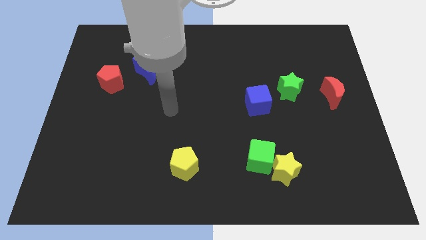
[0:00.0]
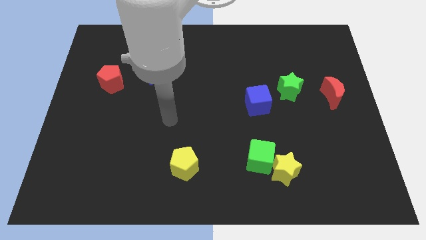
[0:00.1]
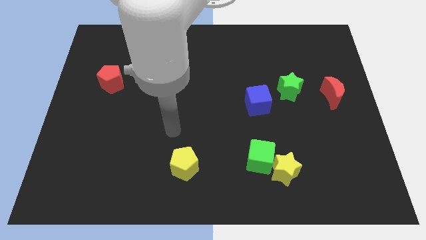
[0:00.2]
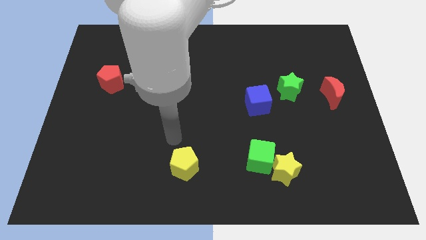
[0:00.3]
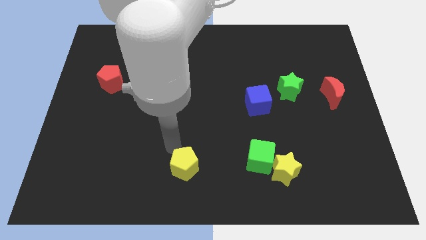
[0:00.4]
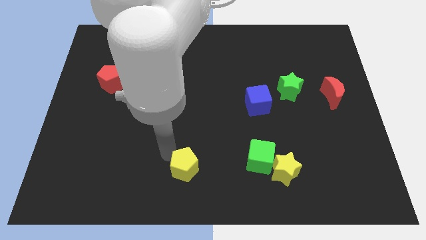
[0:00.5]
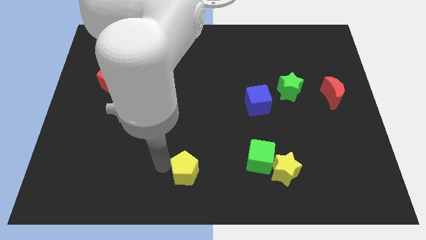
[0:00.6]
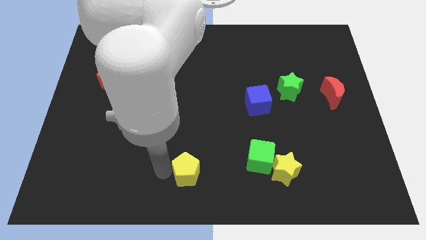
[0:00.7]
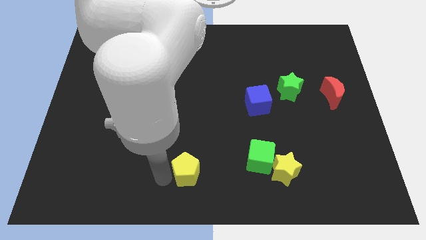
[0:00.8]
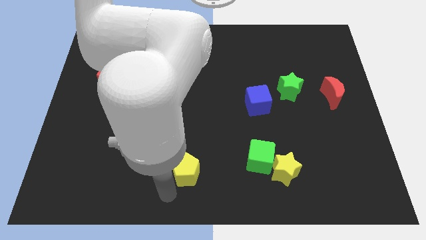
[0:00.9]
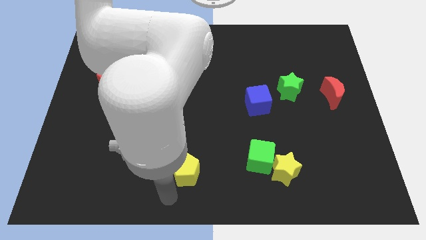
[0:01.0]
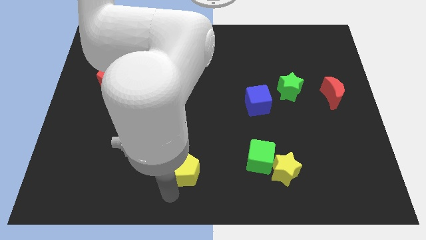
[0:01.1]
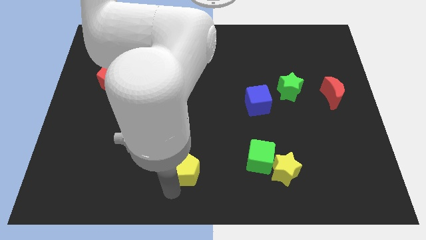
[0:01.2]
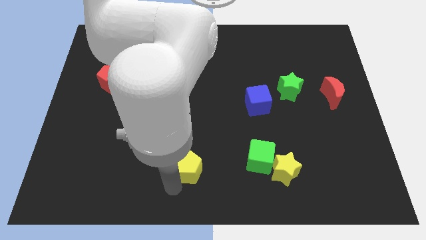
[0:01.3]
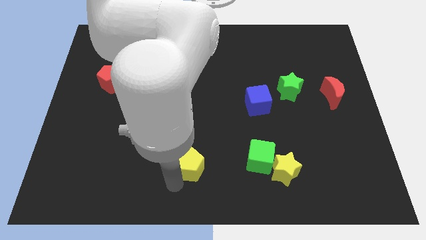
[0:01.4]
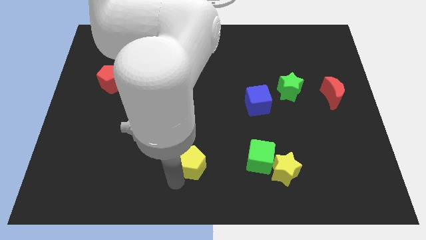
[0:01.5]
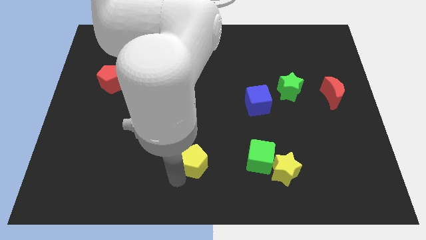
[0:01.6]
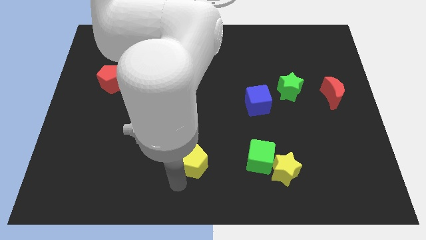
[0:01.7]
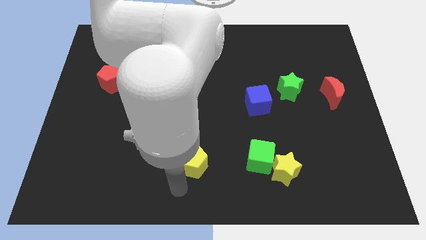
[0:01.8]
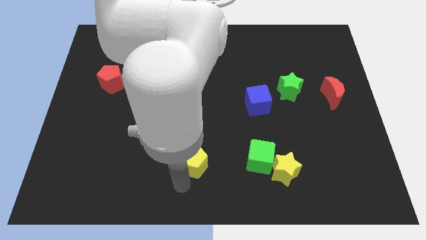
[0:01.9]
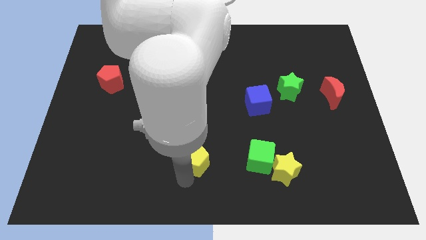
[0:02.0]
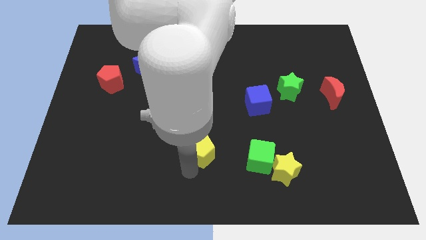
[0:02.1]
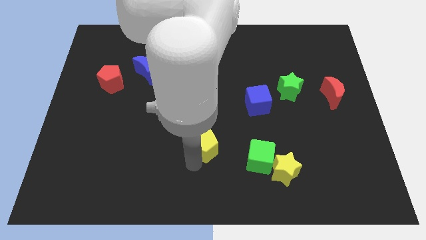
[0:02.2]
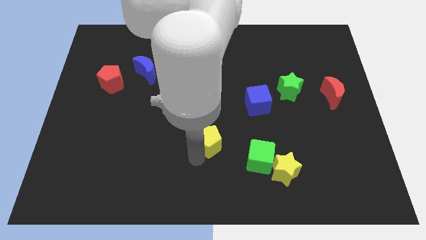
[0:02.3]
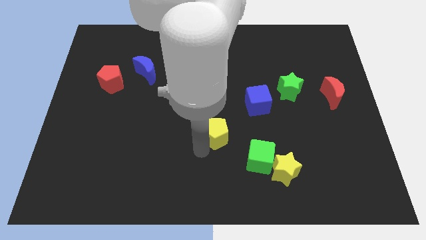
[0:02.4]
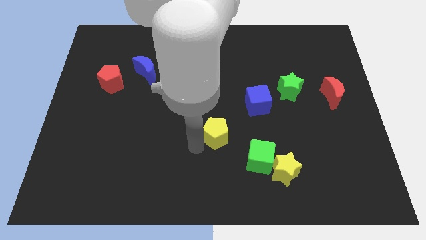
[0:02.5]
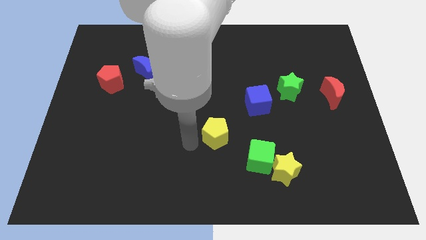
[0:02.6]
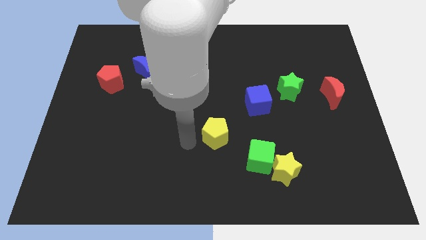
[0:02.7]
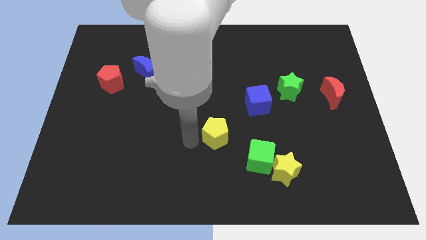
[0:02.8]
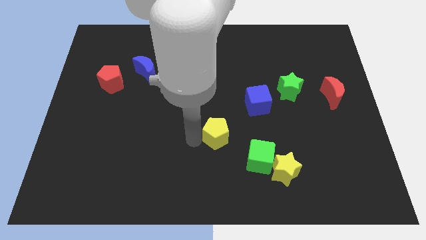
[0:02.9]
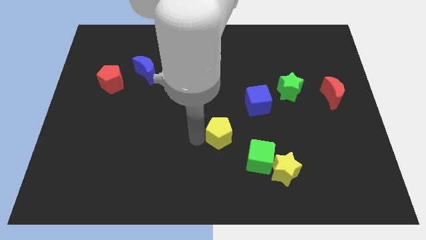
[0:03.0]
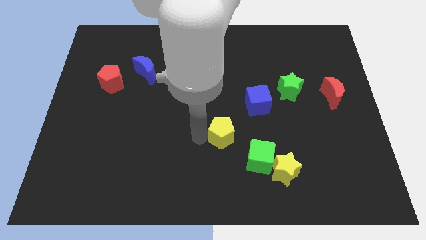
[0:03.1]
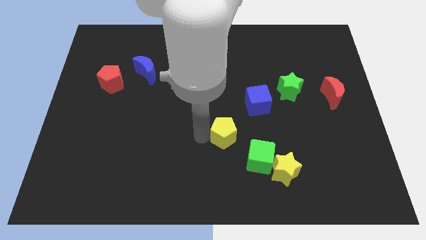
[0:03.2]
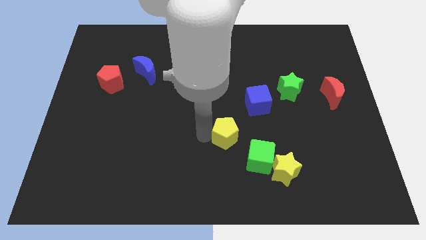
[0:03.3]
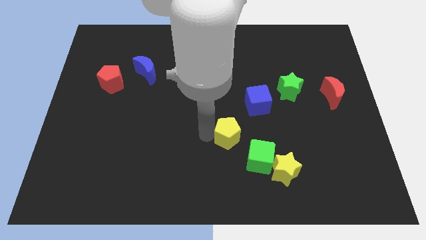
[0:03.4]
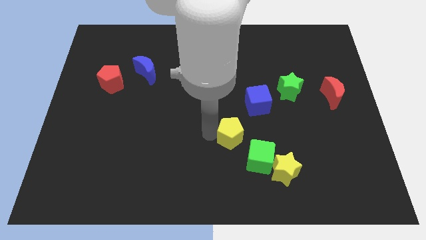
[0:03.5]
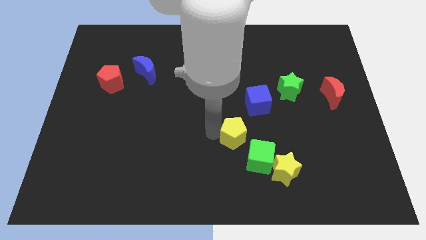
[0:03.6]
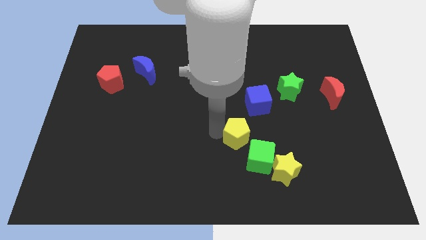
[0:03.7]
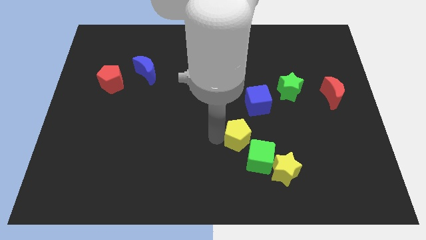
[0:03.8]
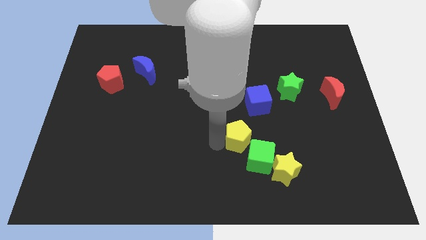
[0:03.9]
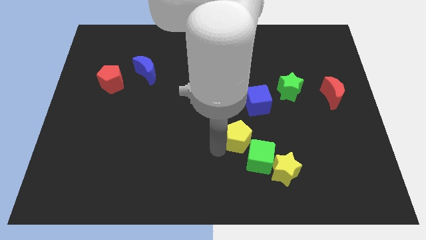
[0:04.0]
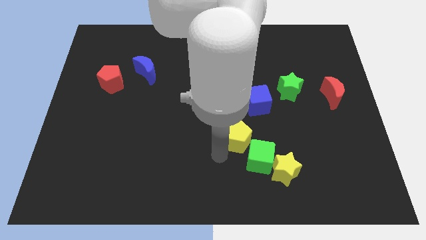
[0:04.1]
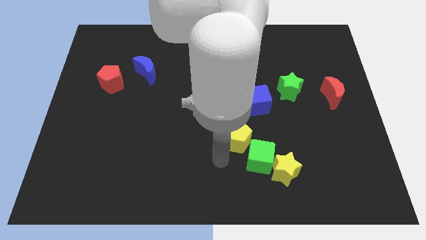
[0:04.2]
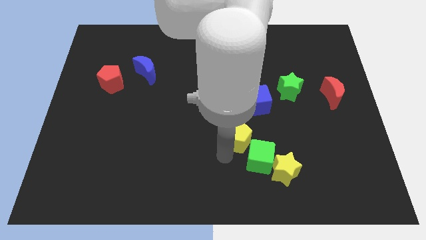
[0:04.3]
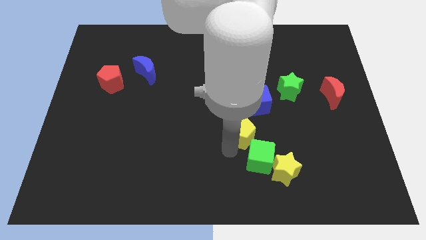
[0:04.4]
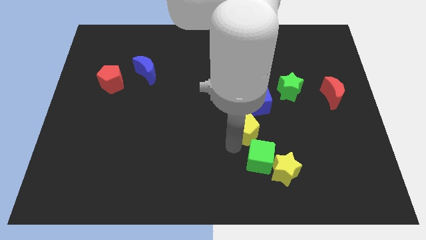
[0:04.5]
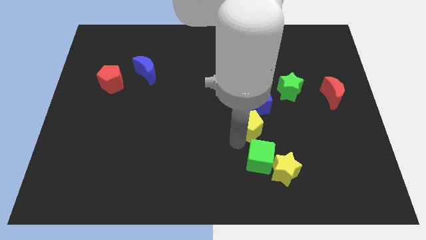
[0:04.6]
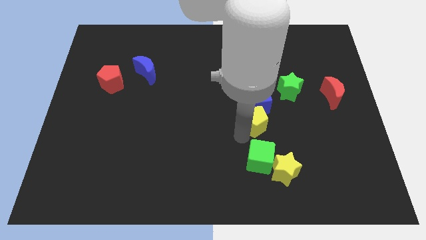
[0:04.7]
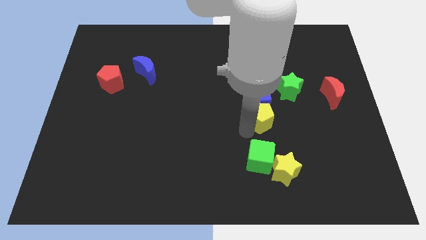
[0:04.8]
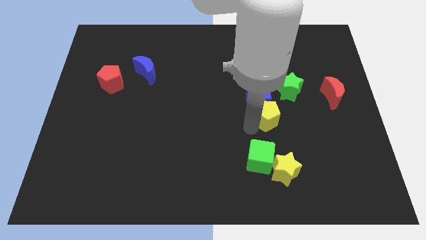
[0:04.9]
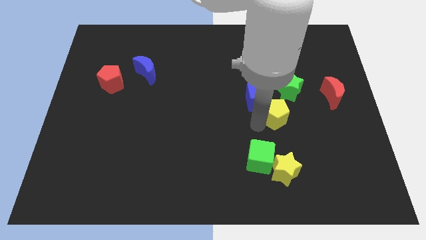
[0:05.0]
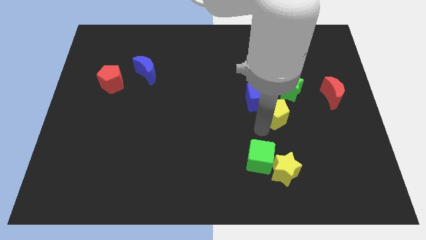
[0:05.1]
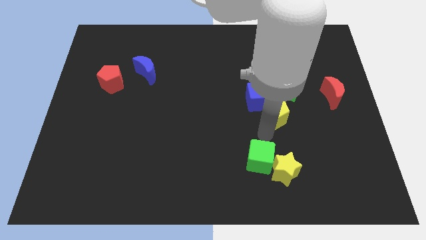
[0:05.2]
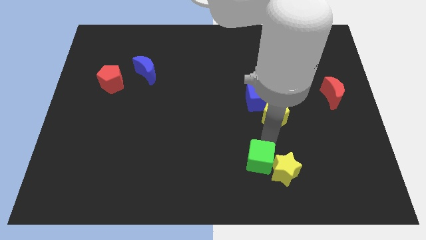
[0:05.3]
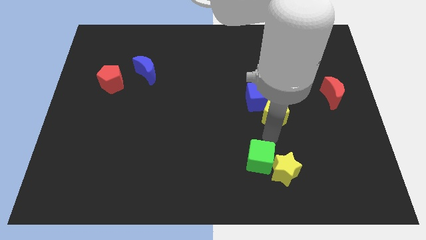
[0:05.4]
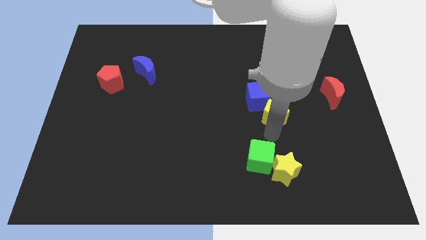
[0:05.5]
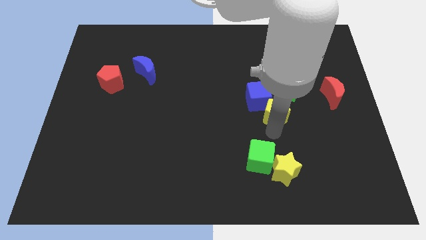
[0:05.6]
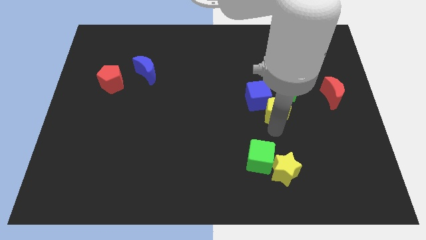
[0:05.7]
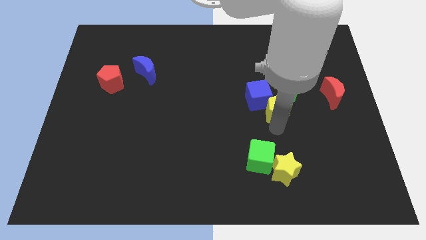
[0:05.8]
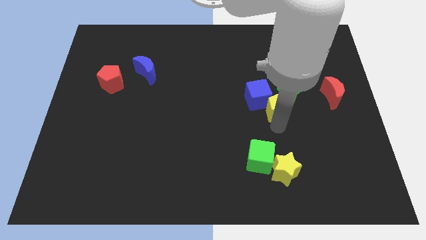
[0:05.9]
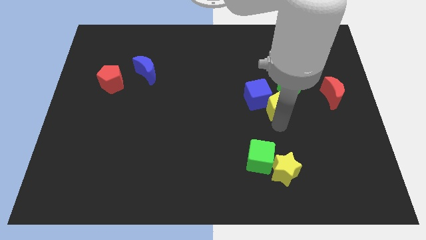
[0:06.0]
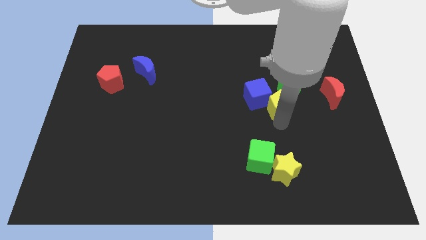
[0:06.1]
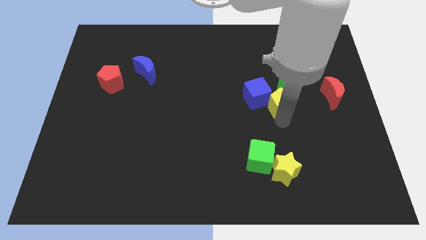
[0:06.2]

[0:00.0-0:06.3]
move the yellow pentagon next to the green star

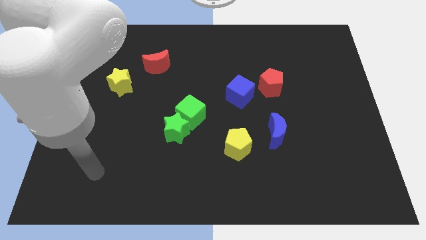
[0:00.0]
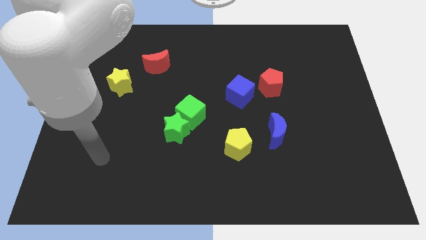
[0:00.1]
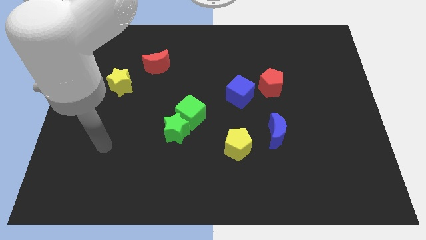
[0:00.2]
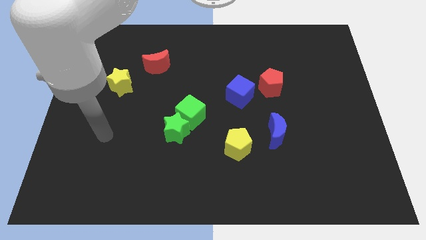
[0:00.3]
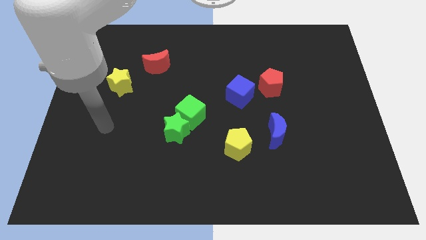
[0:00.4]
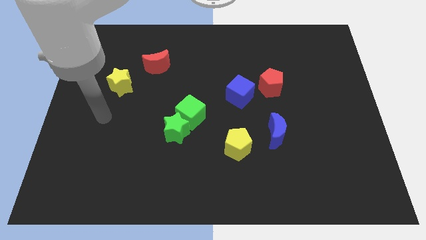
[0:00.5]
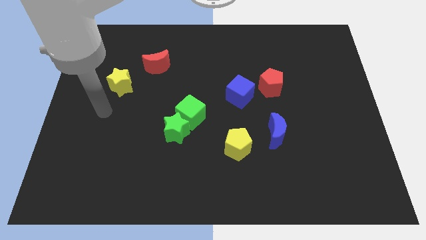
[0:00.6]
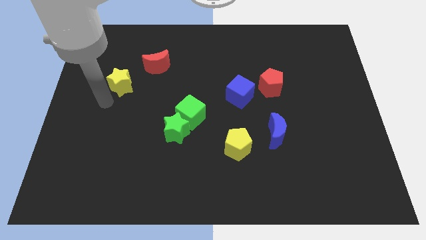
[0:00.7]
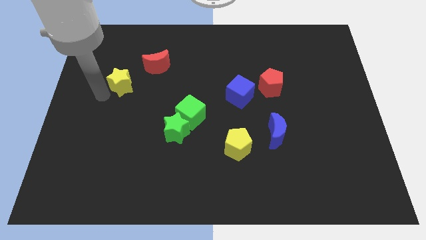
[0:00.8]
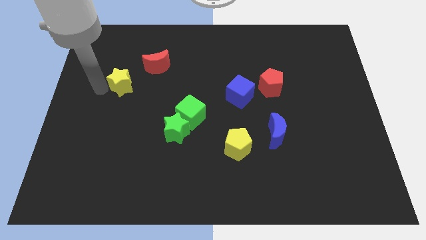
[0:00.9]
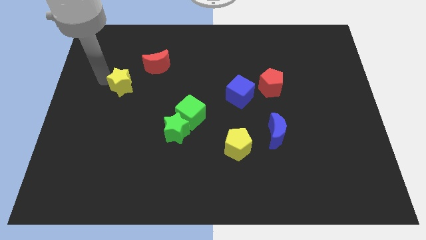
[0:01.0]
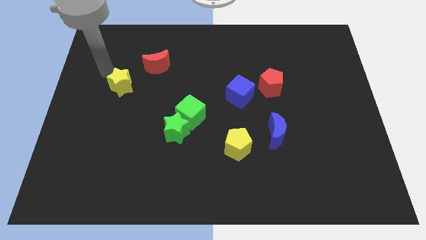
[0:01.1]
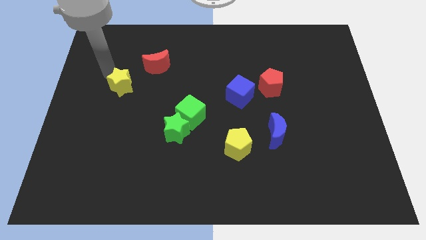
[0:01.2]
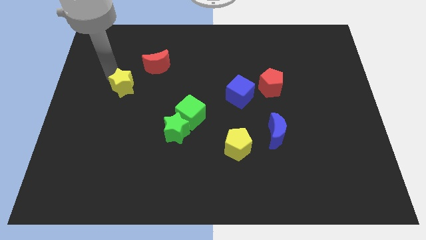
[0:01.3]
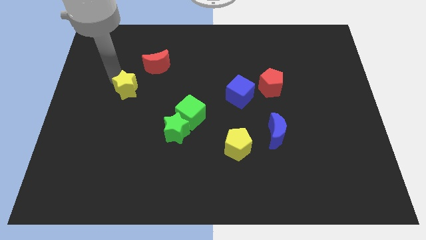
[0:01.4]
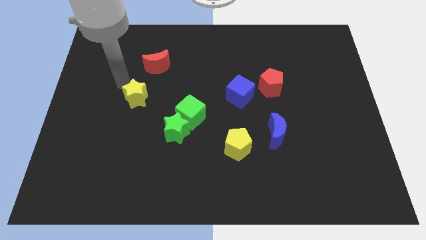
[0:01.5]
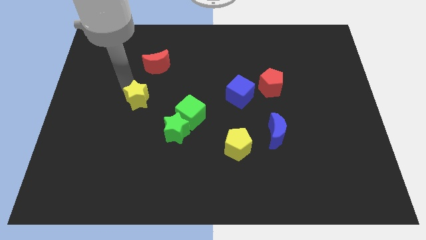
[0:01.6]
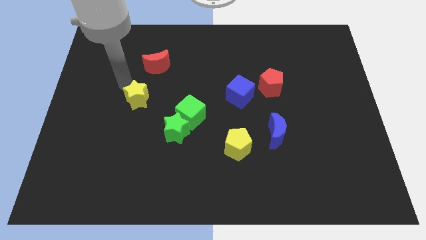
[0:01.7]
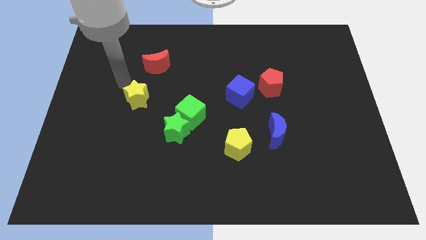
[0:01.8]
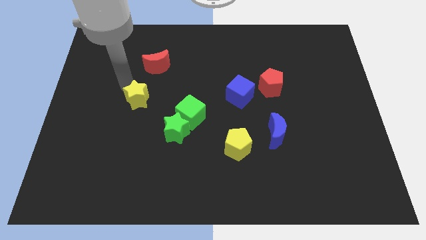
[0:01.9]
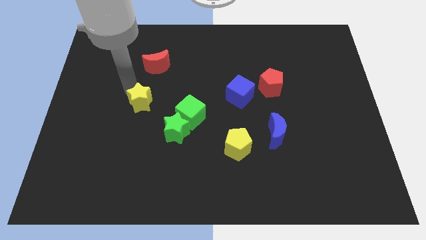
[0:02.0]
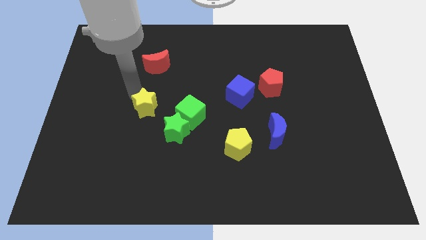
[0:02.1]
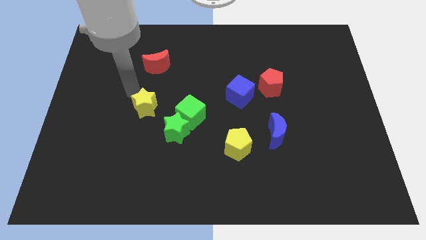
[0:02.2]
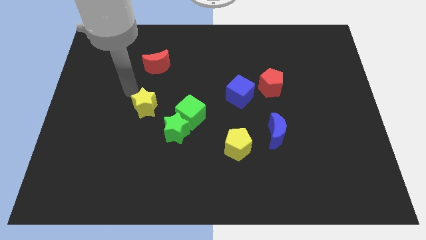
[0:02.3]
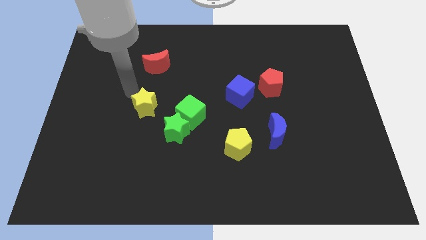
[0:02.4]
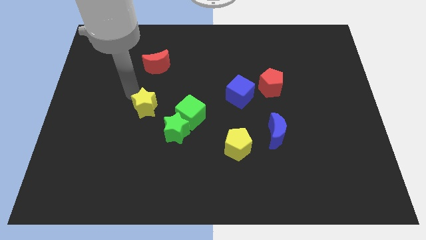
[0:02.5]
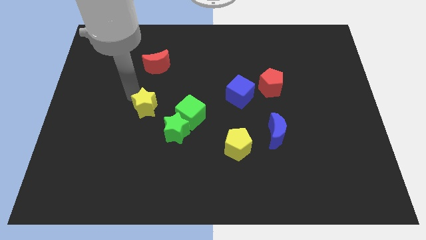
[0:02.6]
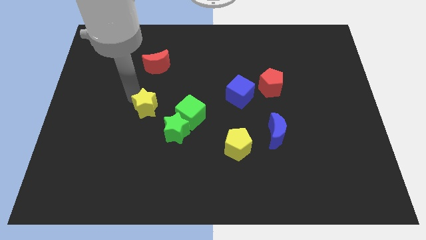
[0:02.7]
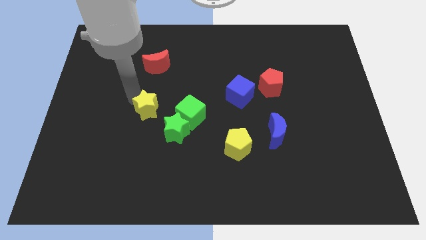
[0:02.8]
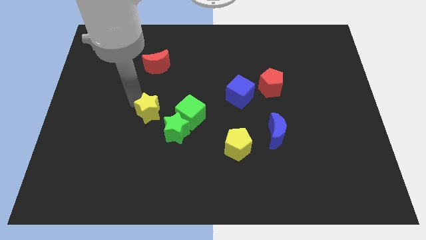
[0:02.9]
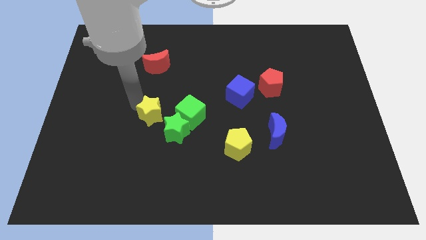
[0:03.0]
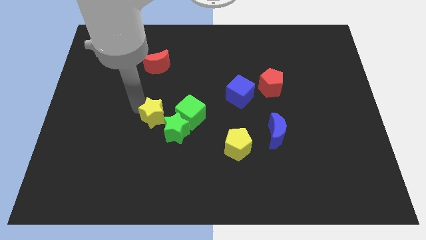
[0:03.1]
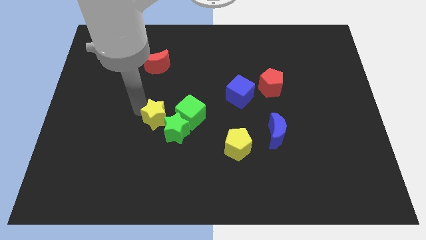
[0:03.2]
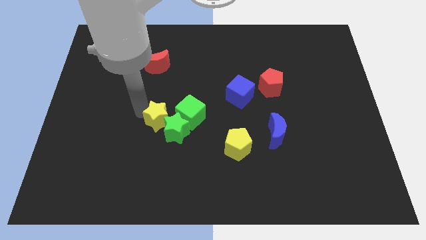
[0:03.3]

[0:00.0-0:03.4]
slide the yellow star close to the green star
